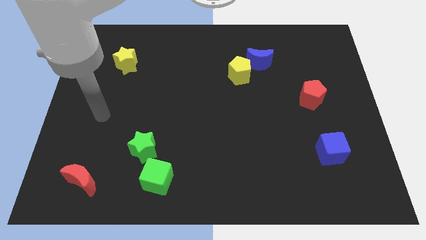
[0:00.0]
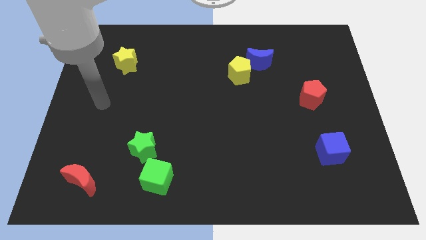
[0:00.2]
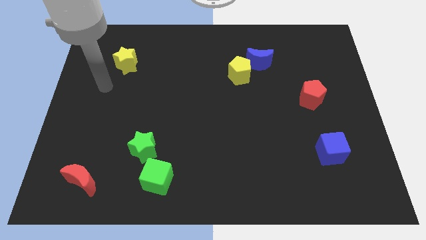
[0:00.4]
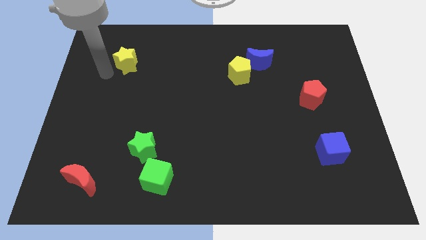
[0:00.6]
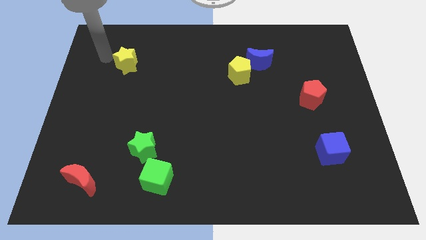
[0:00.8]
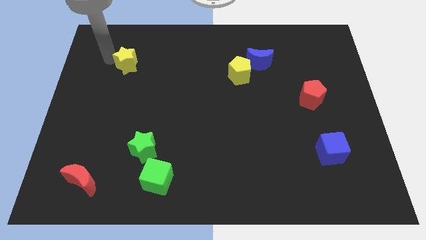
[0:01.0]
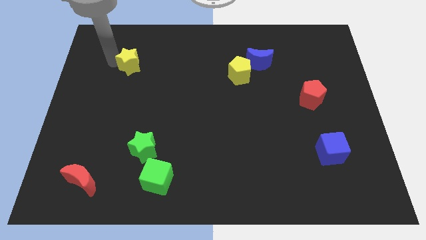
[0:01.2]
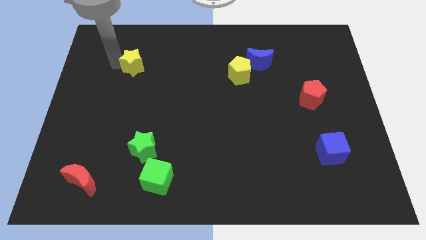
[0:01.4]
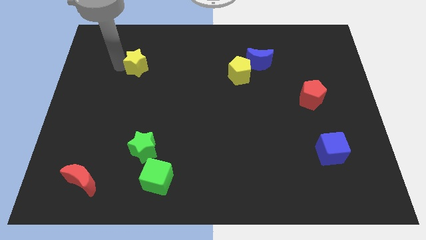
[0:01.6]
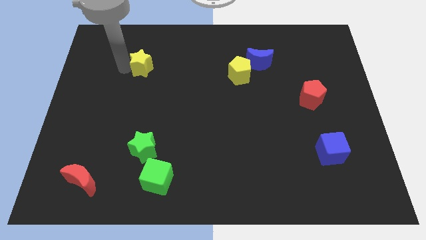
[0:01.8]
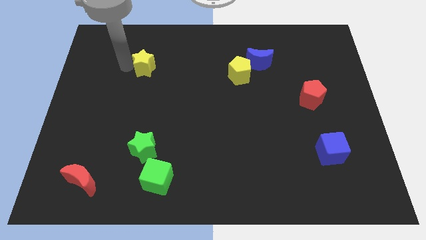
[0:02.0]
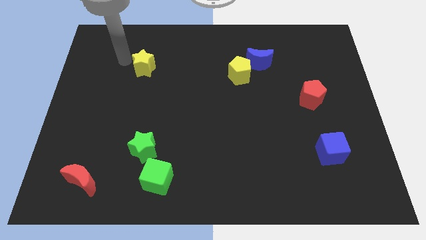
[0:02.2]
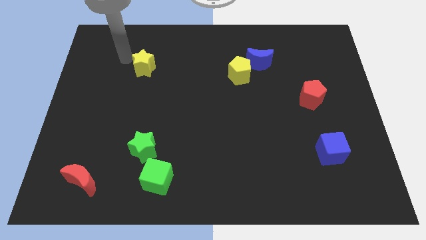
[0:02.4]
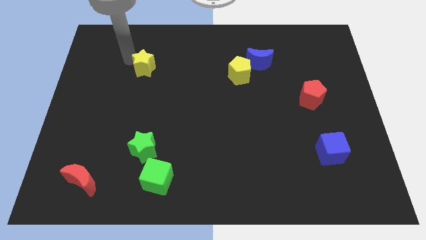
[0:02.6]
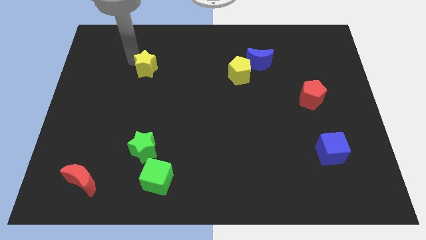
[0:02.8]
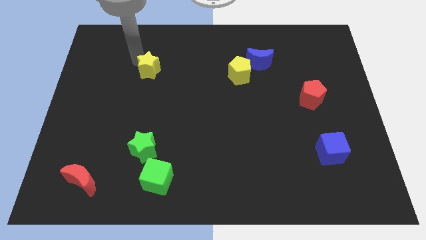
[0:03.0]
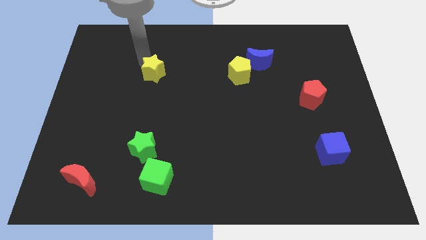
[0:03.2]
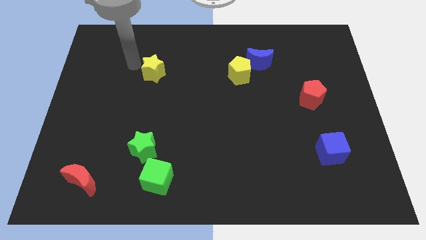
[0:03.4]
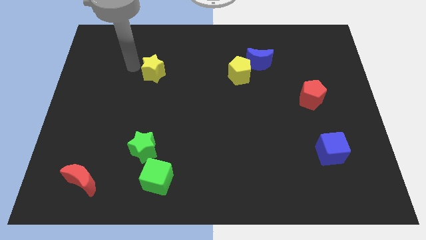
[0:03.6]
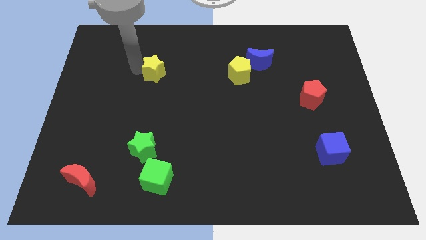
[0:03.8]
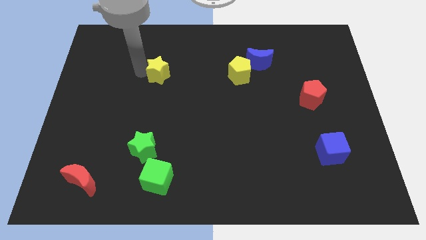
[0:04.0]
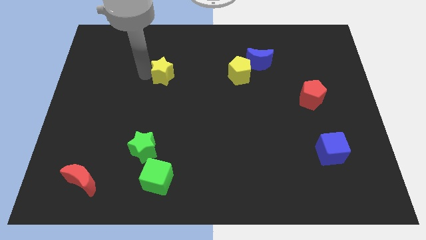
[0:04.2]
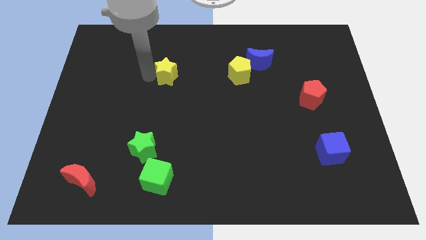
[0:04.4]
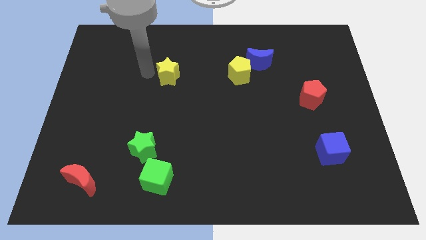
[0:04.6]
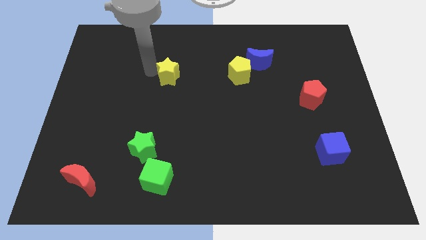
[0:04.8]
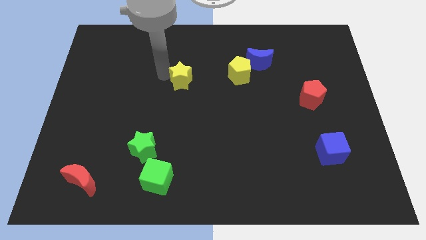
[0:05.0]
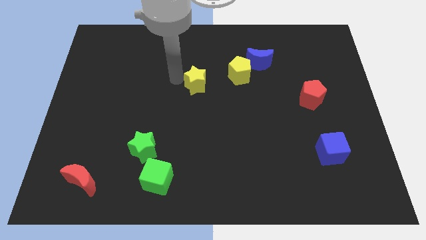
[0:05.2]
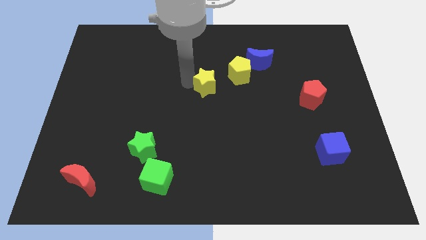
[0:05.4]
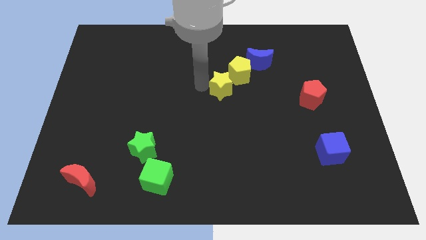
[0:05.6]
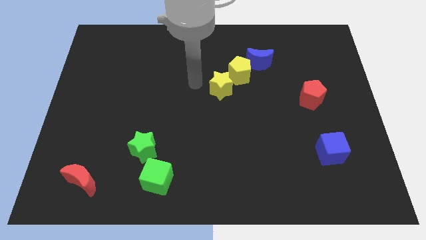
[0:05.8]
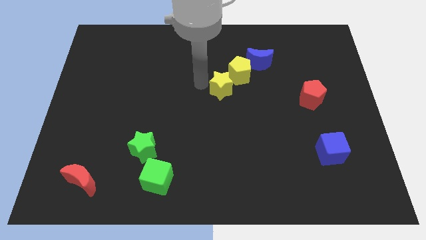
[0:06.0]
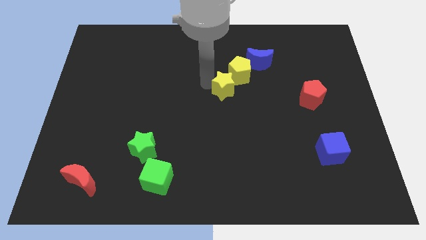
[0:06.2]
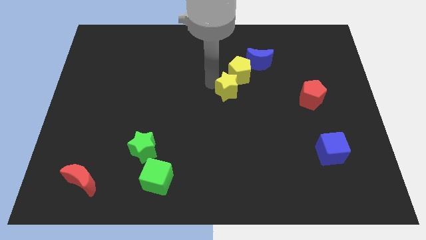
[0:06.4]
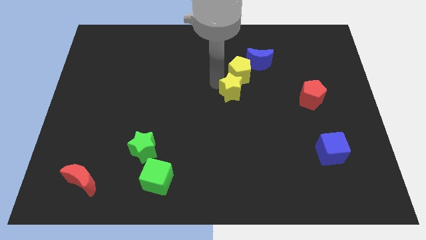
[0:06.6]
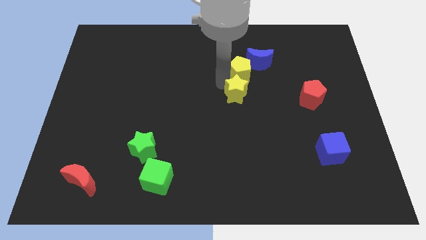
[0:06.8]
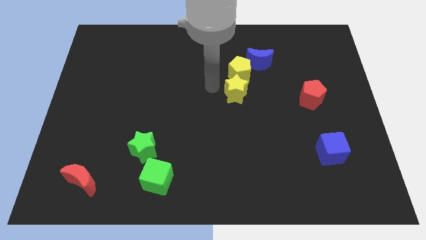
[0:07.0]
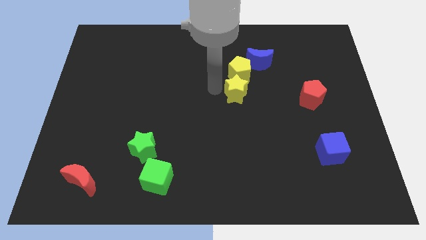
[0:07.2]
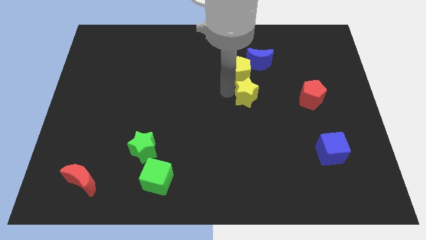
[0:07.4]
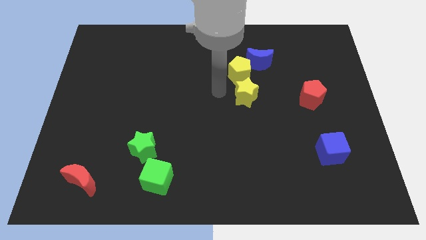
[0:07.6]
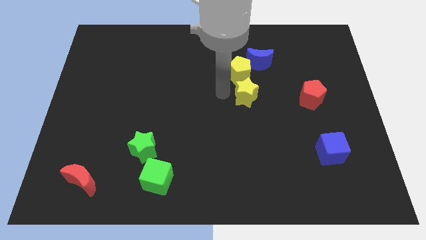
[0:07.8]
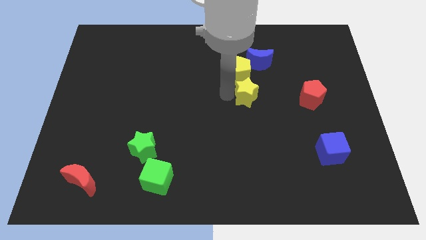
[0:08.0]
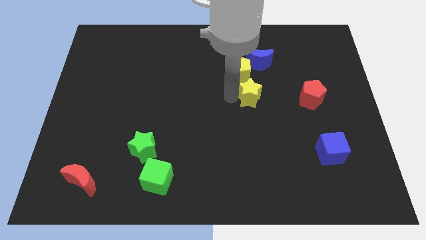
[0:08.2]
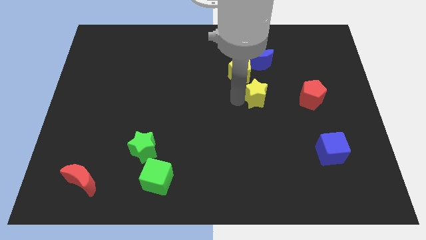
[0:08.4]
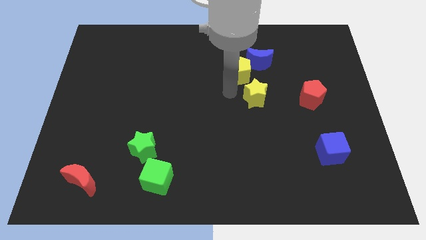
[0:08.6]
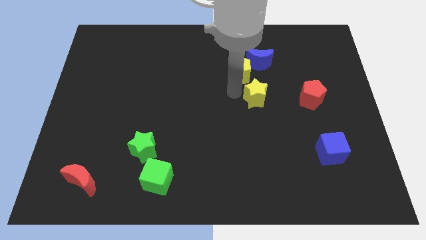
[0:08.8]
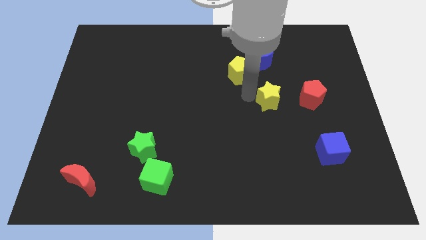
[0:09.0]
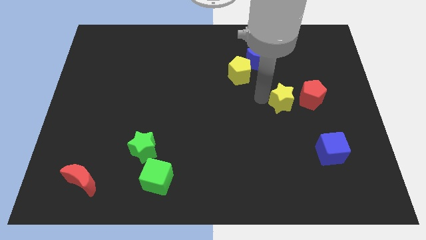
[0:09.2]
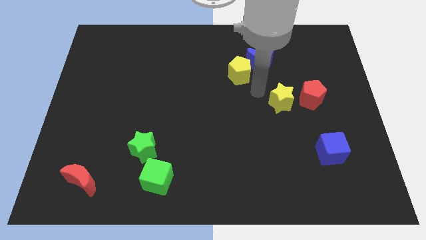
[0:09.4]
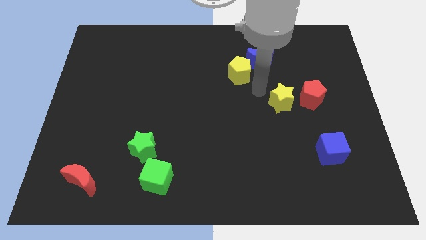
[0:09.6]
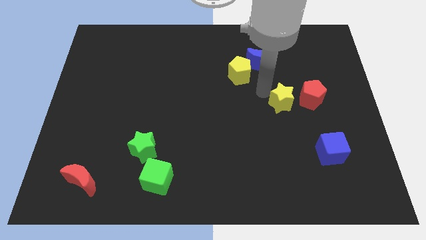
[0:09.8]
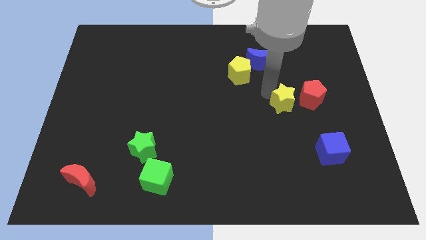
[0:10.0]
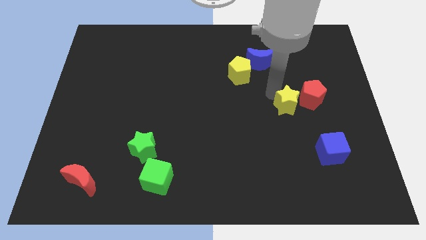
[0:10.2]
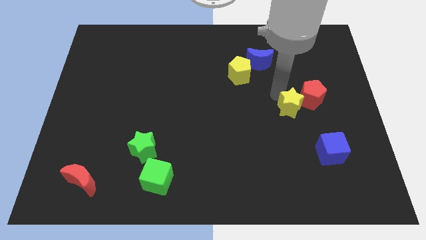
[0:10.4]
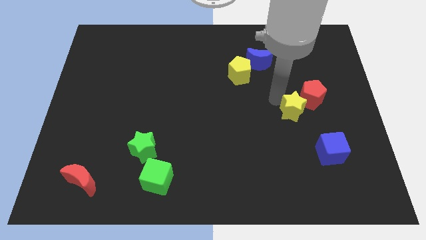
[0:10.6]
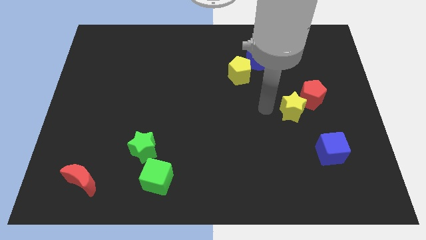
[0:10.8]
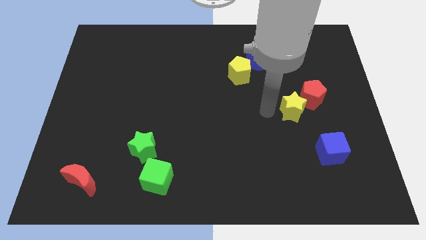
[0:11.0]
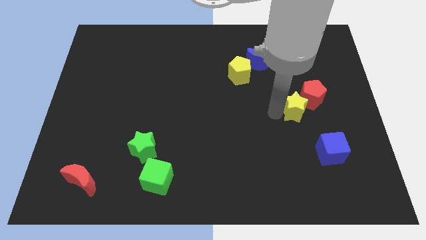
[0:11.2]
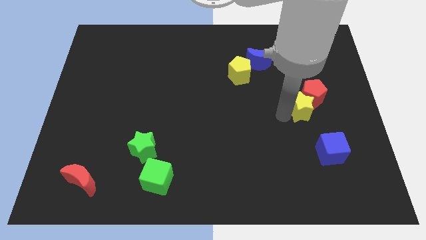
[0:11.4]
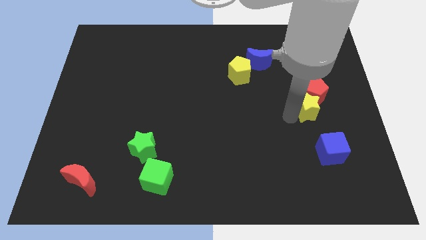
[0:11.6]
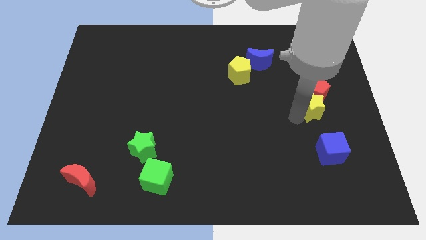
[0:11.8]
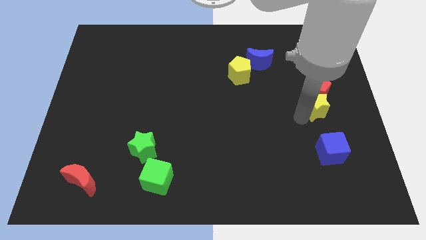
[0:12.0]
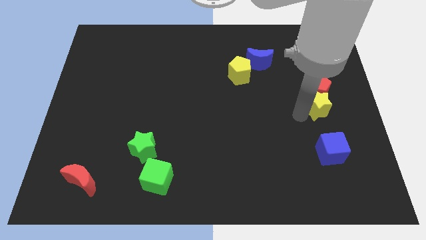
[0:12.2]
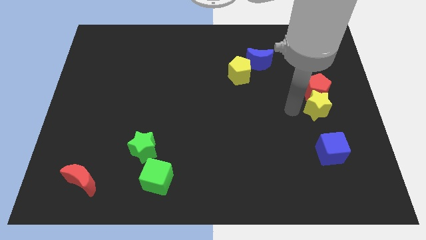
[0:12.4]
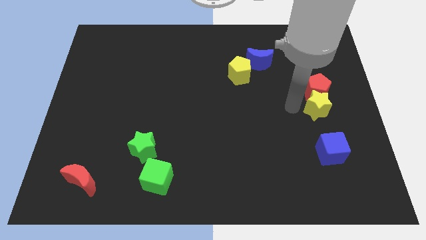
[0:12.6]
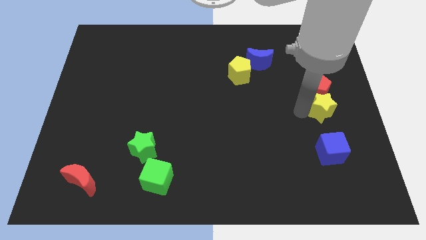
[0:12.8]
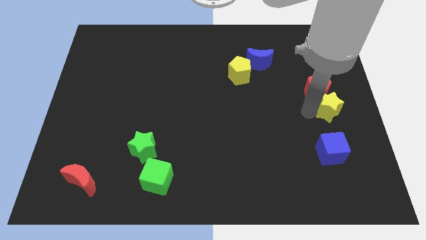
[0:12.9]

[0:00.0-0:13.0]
put the yellow star to the center right
